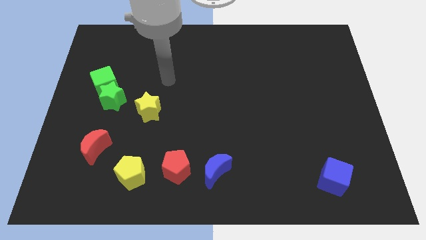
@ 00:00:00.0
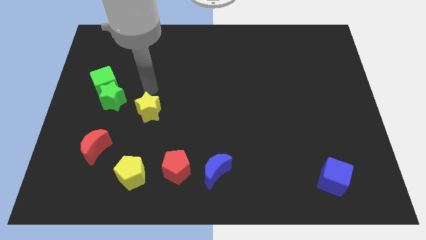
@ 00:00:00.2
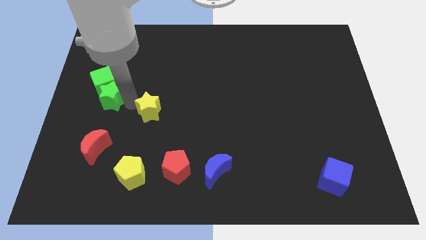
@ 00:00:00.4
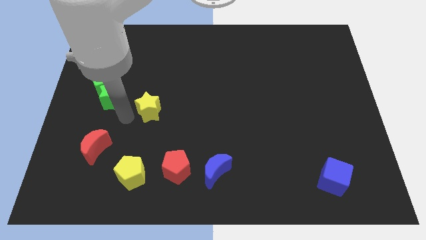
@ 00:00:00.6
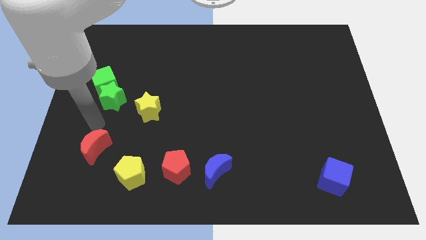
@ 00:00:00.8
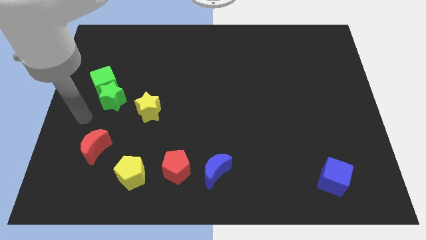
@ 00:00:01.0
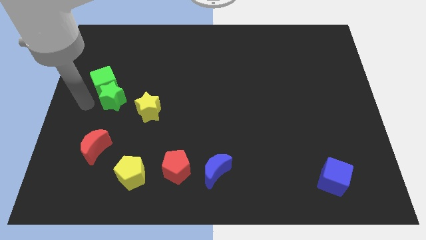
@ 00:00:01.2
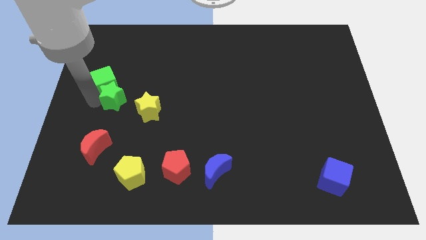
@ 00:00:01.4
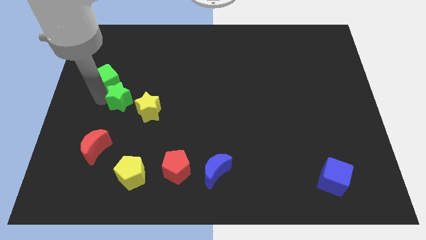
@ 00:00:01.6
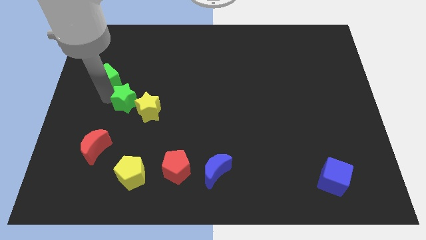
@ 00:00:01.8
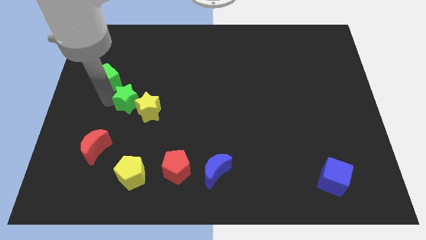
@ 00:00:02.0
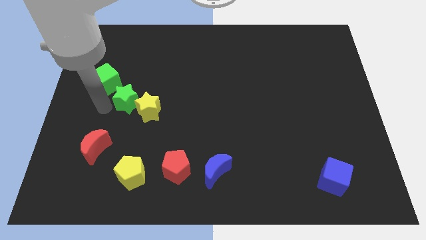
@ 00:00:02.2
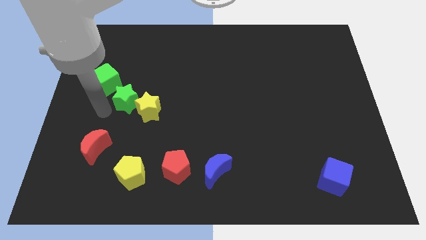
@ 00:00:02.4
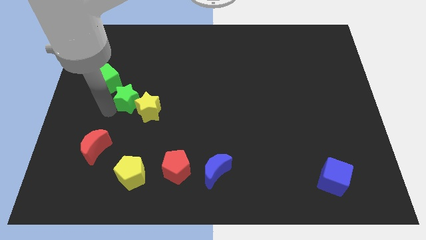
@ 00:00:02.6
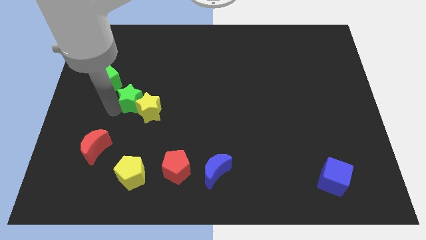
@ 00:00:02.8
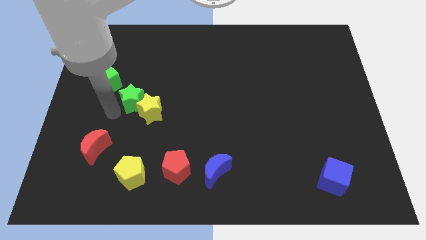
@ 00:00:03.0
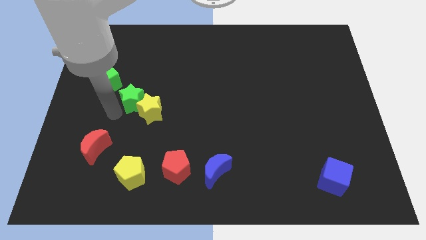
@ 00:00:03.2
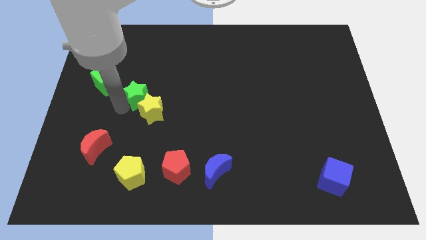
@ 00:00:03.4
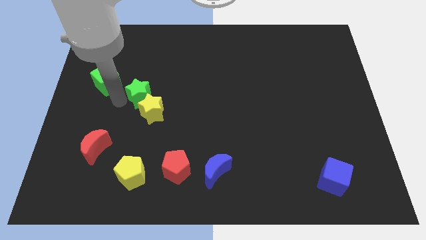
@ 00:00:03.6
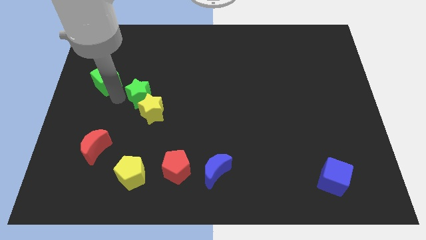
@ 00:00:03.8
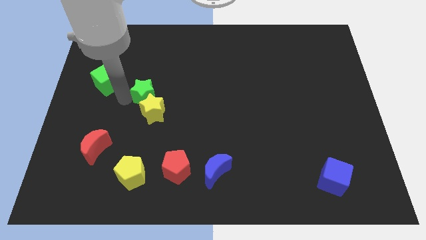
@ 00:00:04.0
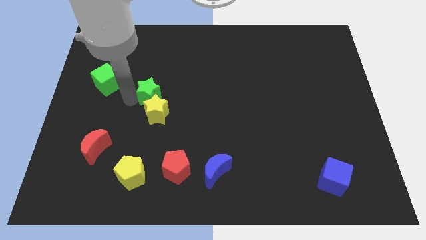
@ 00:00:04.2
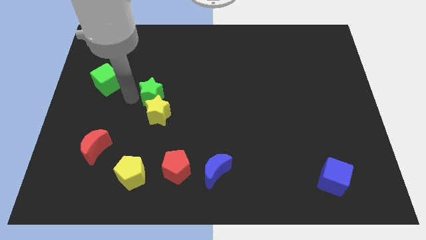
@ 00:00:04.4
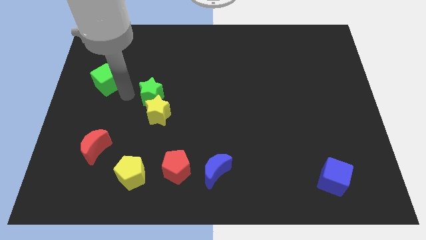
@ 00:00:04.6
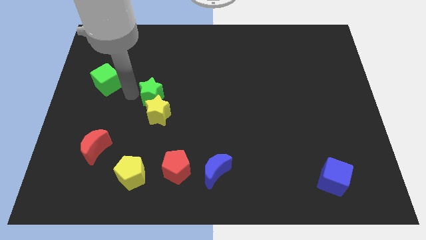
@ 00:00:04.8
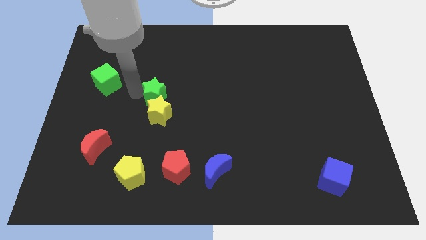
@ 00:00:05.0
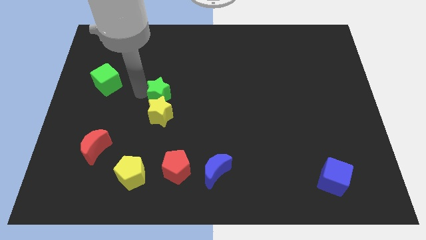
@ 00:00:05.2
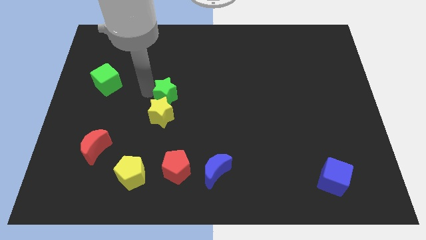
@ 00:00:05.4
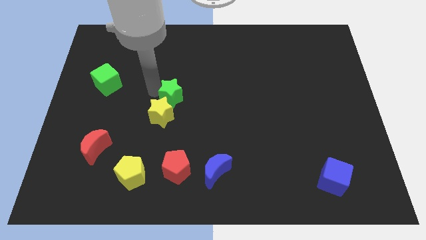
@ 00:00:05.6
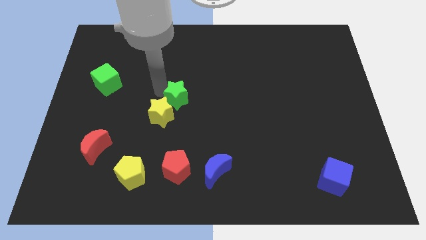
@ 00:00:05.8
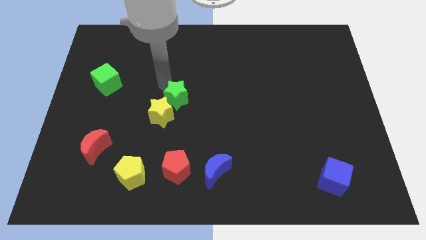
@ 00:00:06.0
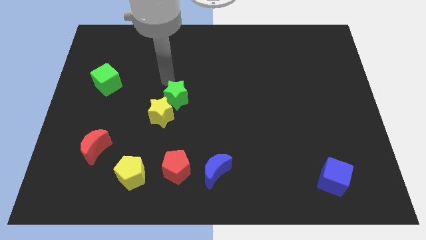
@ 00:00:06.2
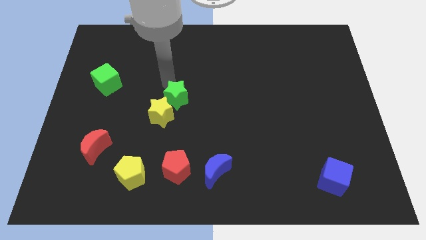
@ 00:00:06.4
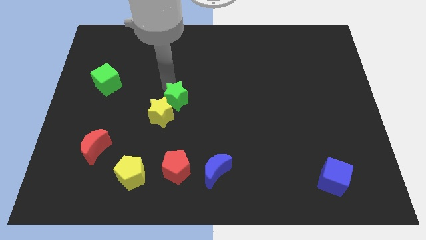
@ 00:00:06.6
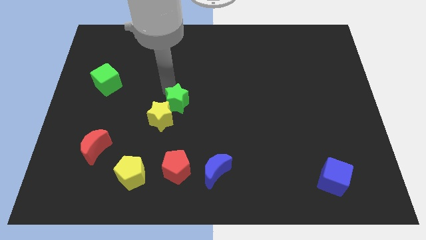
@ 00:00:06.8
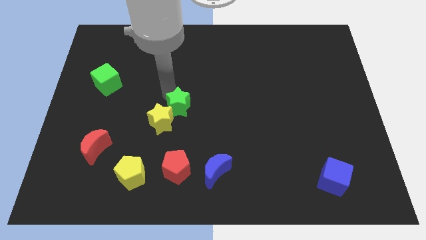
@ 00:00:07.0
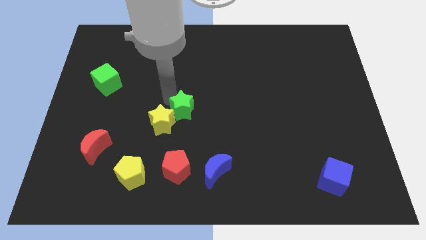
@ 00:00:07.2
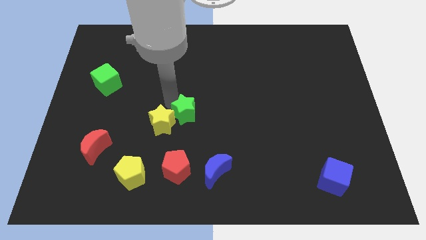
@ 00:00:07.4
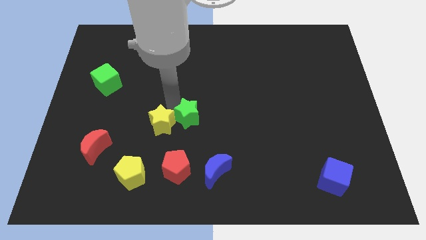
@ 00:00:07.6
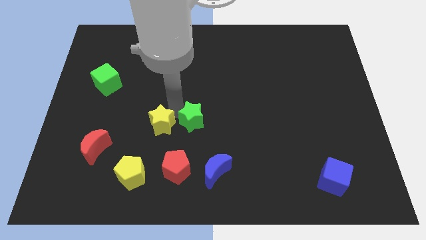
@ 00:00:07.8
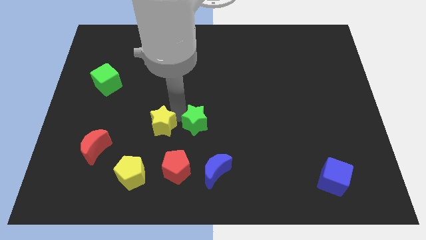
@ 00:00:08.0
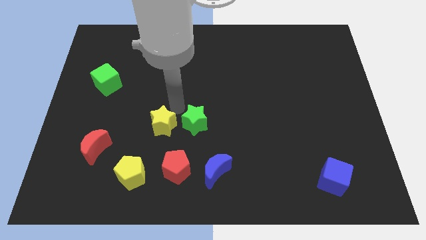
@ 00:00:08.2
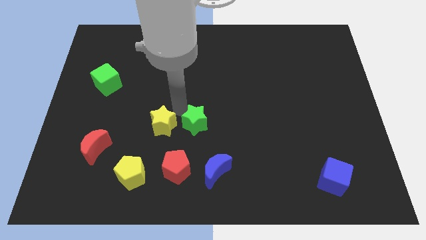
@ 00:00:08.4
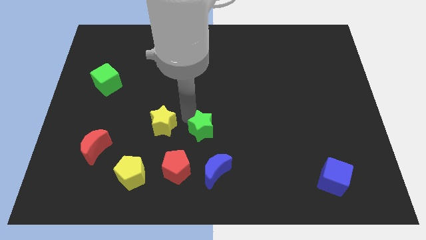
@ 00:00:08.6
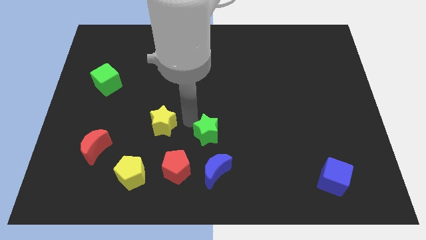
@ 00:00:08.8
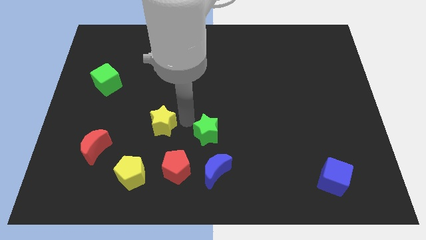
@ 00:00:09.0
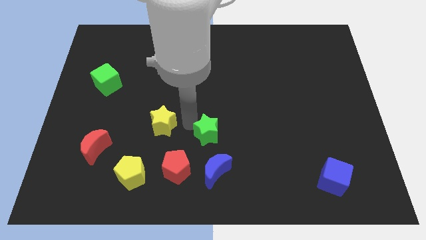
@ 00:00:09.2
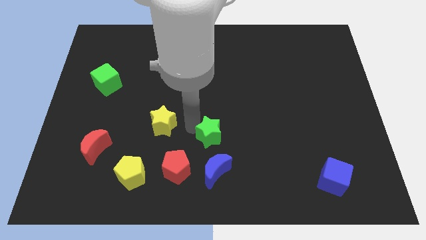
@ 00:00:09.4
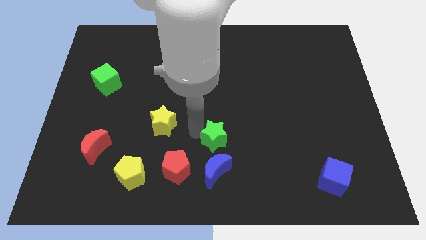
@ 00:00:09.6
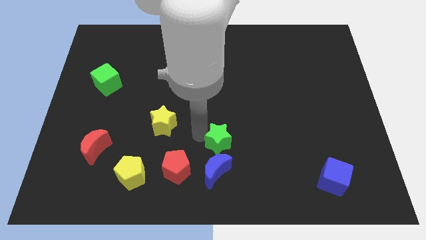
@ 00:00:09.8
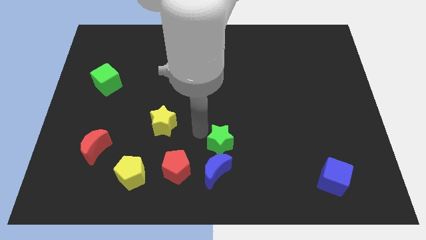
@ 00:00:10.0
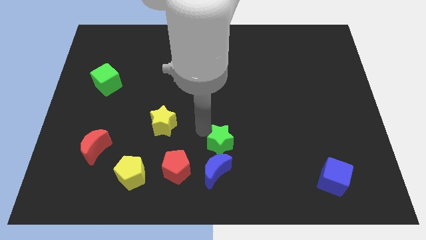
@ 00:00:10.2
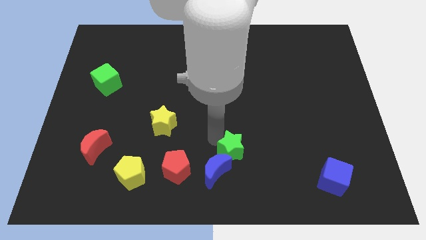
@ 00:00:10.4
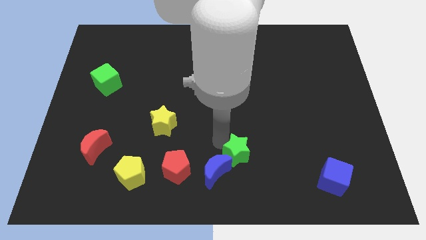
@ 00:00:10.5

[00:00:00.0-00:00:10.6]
slide the green star just right of the blue moon

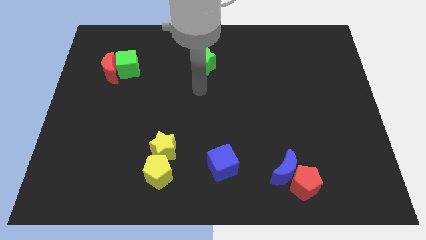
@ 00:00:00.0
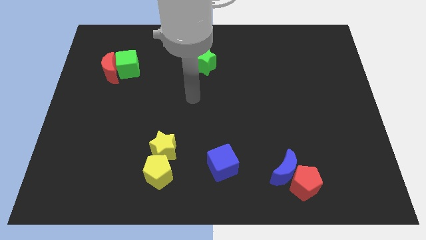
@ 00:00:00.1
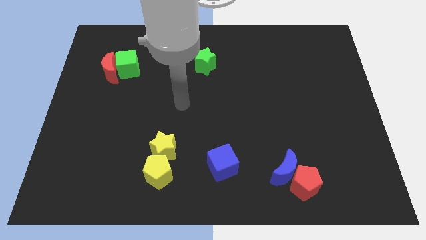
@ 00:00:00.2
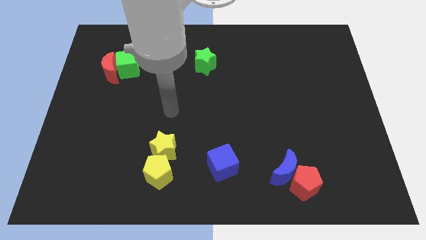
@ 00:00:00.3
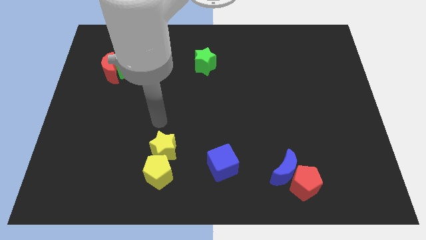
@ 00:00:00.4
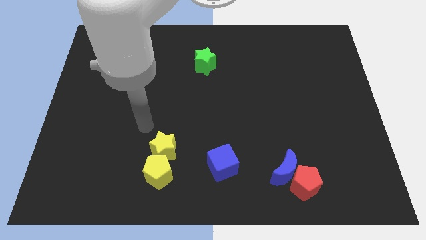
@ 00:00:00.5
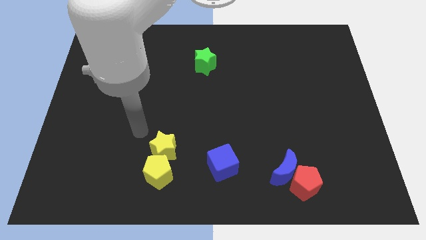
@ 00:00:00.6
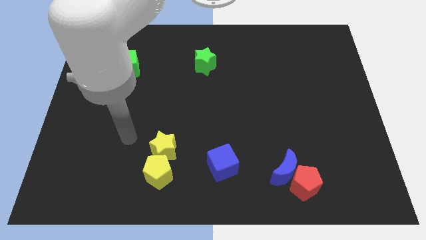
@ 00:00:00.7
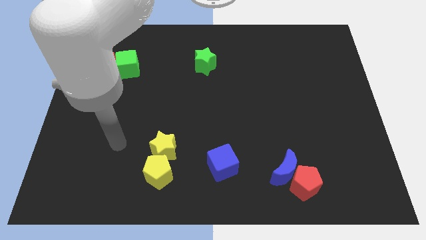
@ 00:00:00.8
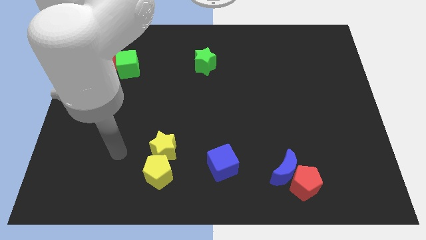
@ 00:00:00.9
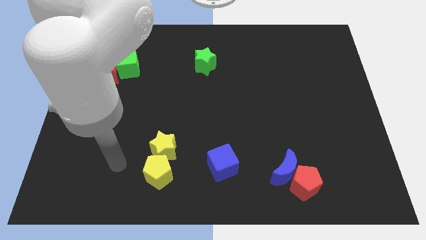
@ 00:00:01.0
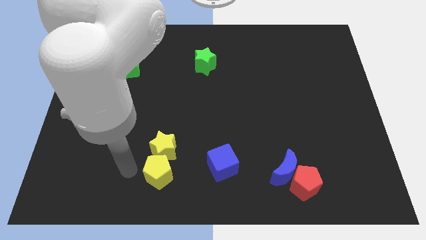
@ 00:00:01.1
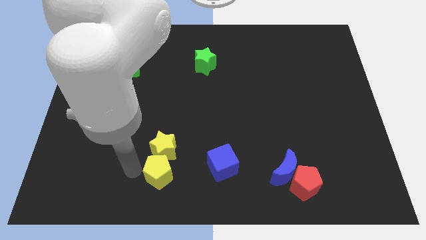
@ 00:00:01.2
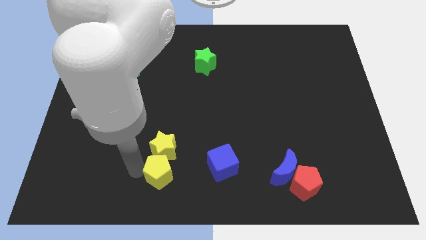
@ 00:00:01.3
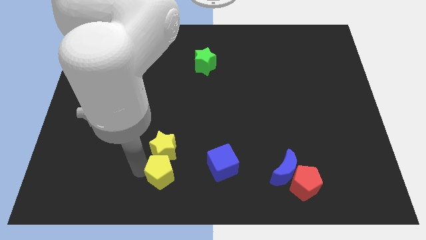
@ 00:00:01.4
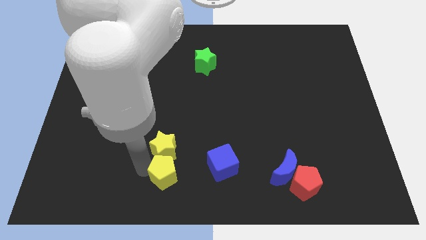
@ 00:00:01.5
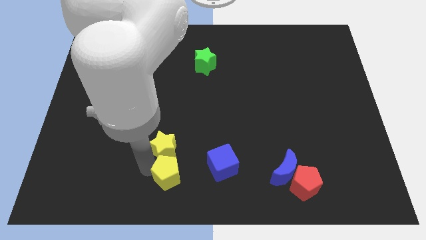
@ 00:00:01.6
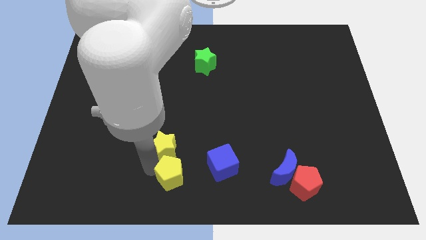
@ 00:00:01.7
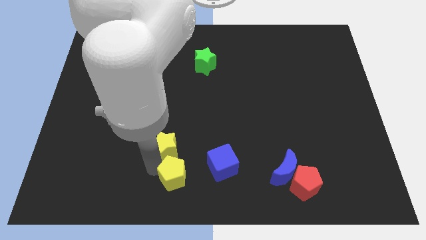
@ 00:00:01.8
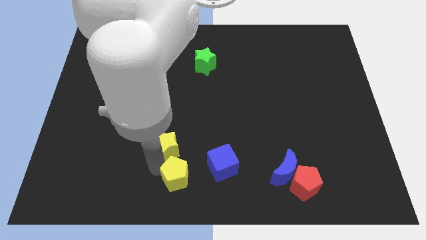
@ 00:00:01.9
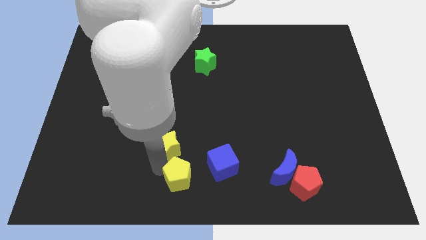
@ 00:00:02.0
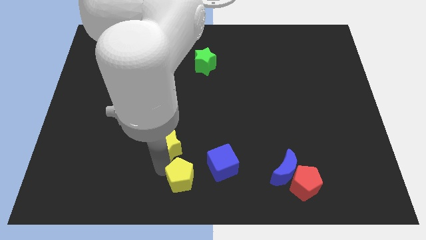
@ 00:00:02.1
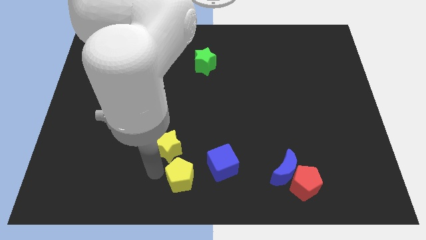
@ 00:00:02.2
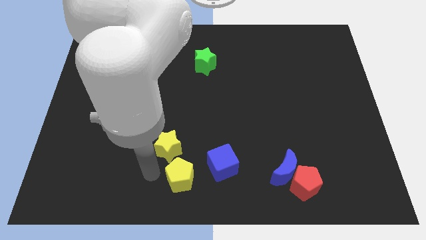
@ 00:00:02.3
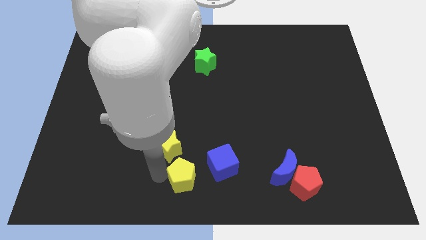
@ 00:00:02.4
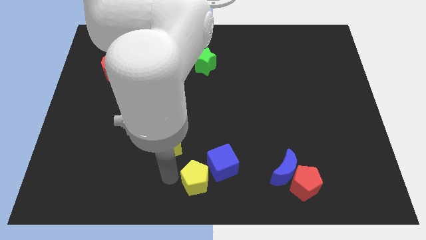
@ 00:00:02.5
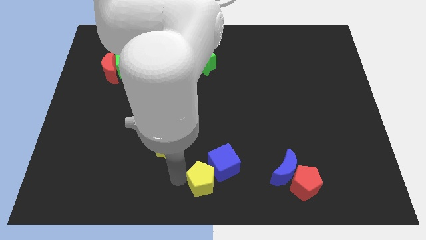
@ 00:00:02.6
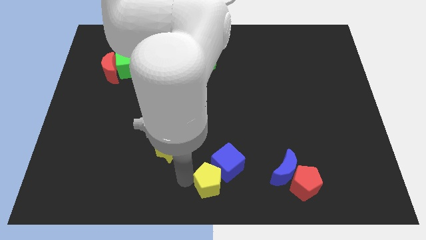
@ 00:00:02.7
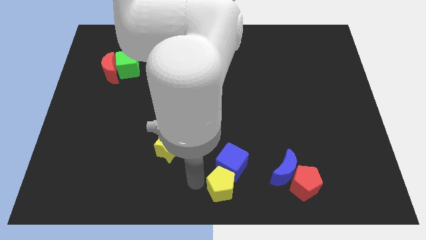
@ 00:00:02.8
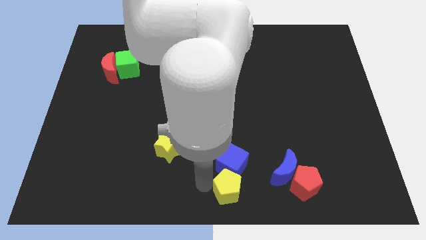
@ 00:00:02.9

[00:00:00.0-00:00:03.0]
push the yellow pentagon left of the red pentagon
